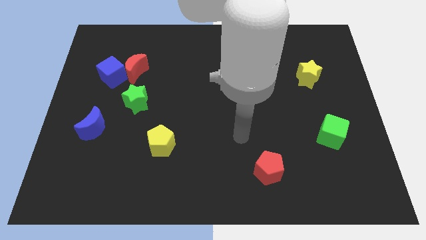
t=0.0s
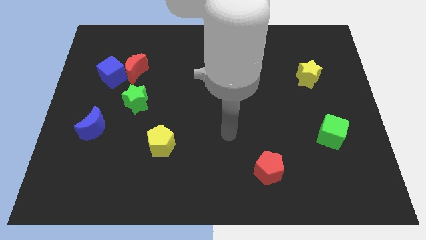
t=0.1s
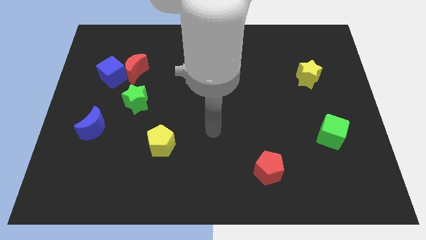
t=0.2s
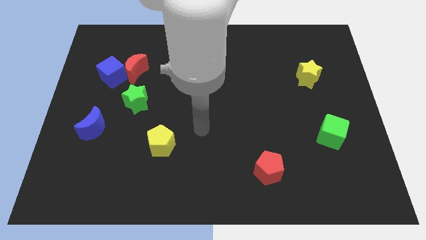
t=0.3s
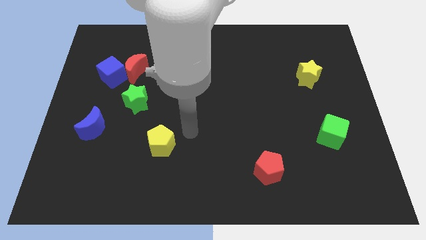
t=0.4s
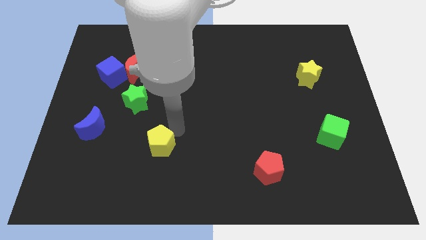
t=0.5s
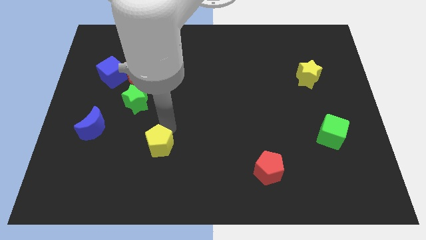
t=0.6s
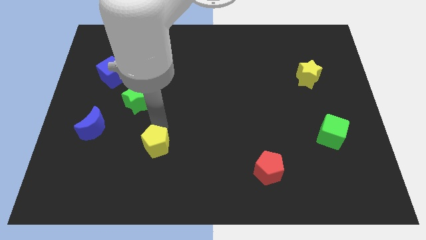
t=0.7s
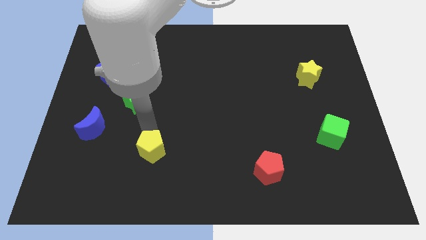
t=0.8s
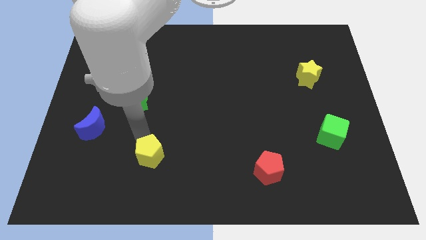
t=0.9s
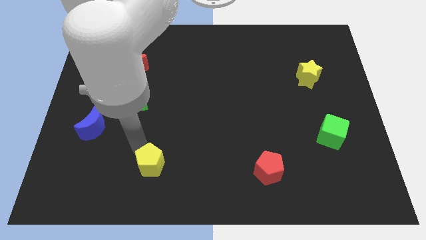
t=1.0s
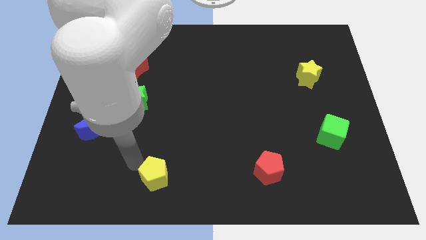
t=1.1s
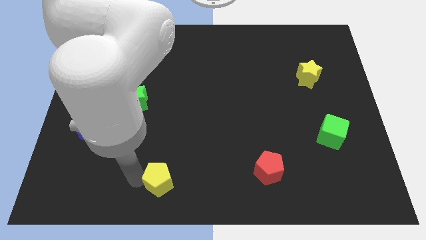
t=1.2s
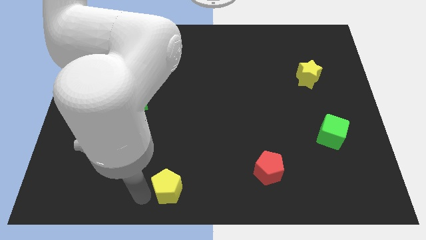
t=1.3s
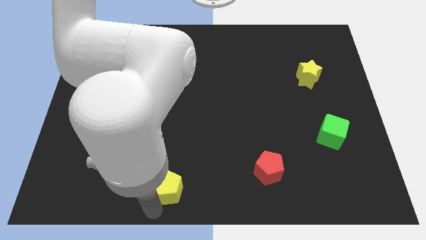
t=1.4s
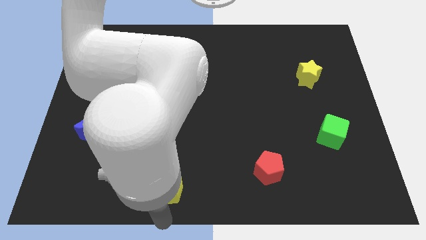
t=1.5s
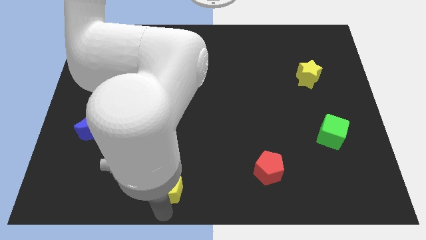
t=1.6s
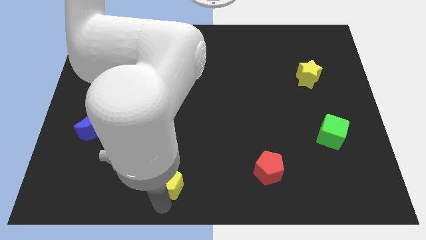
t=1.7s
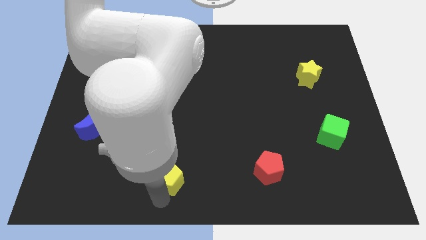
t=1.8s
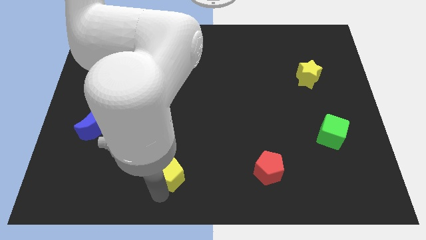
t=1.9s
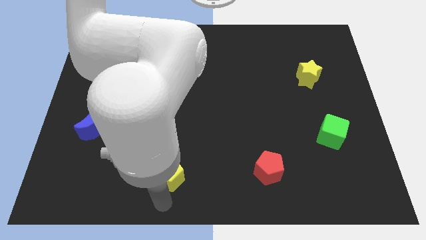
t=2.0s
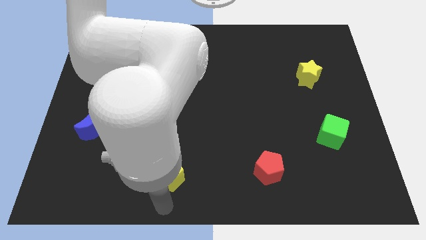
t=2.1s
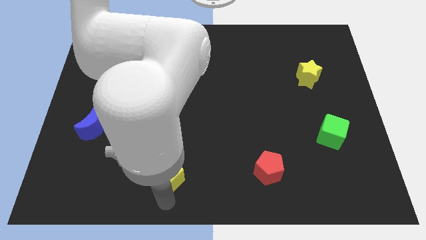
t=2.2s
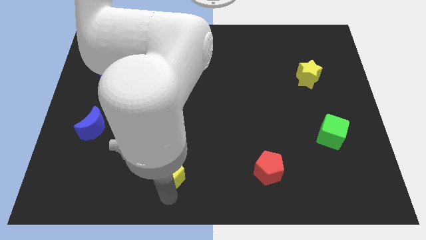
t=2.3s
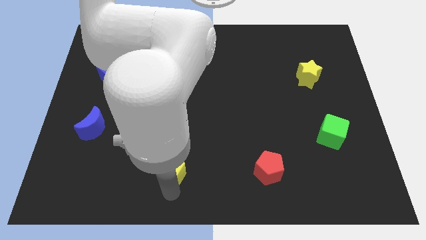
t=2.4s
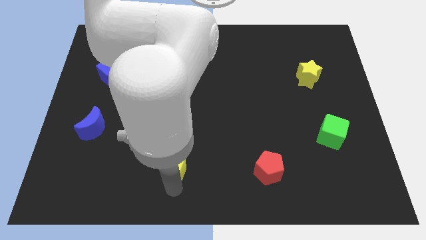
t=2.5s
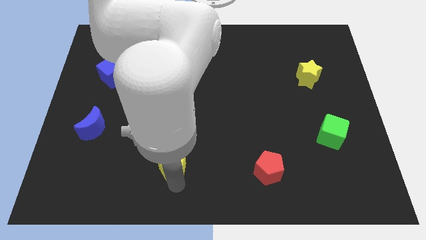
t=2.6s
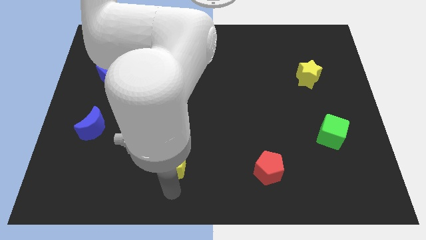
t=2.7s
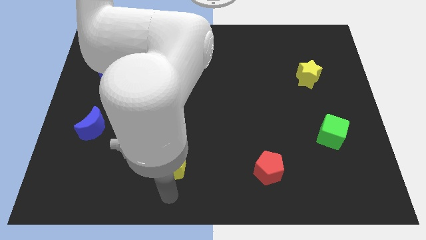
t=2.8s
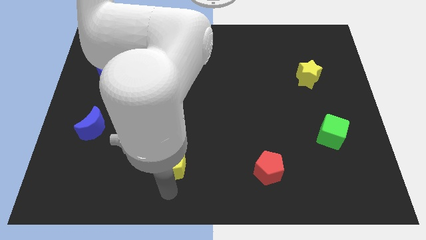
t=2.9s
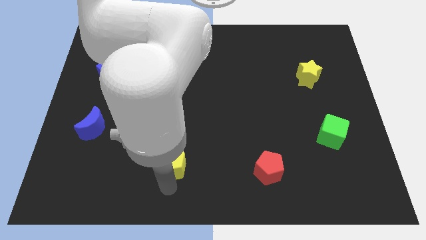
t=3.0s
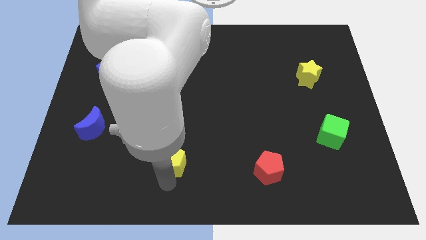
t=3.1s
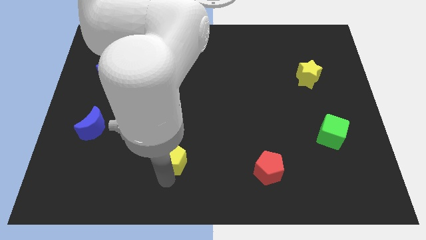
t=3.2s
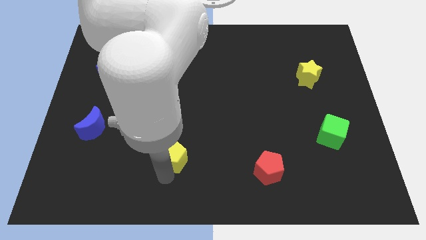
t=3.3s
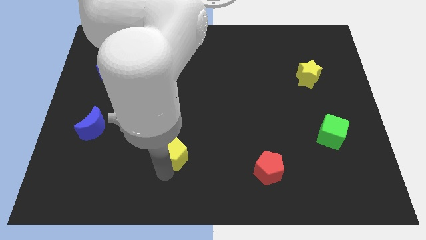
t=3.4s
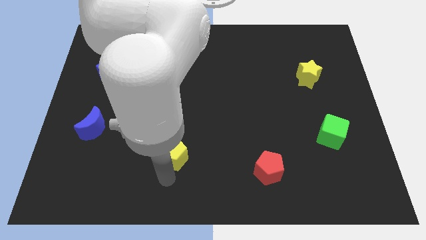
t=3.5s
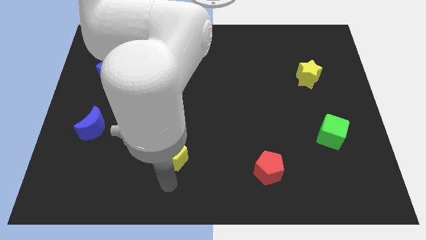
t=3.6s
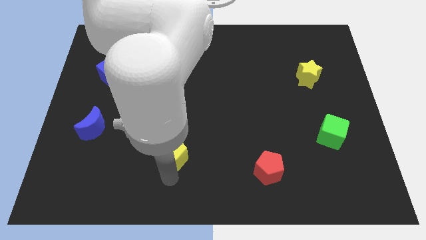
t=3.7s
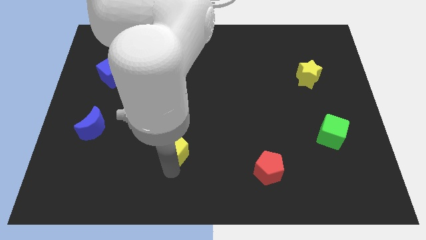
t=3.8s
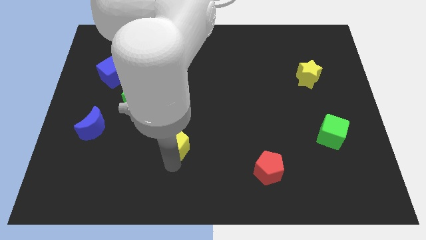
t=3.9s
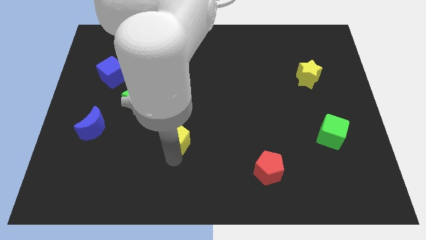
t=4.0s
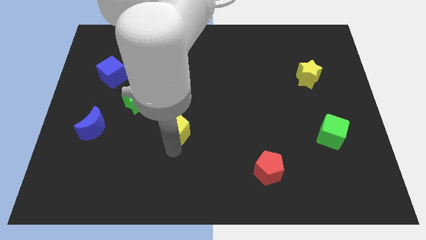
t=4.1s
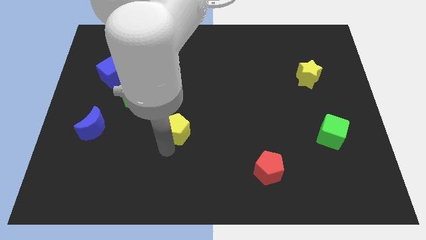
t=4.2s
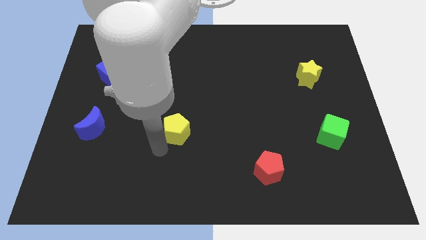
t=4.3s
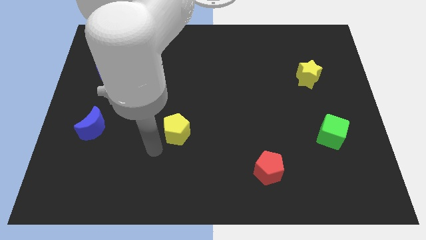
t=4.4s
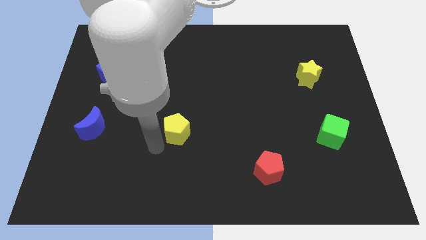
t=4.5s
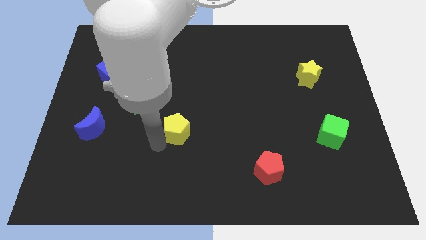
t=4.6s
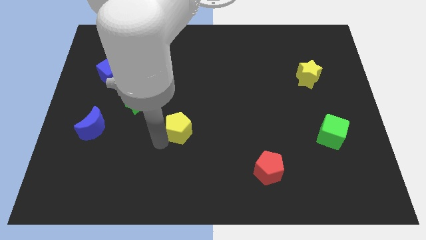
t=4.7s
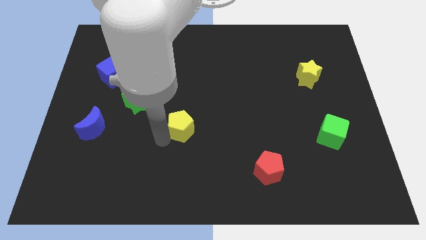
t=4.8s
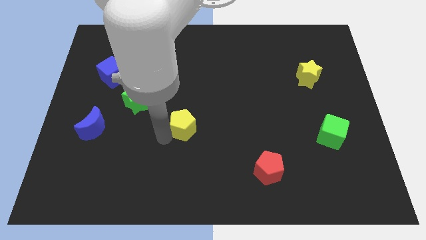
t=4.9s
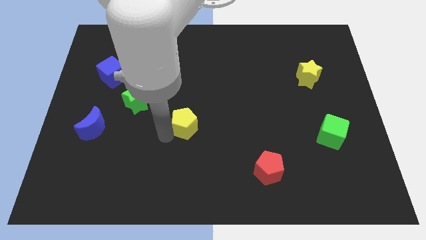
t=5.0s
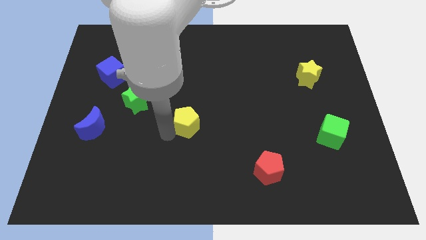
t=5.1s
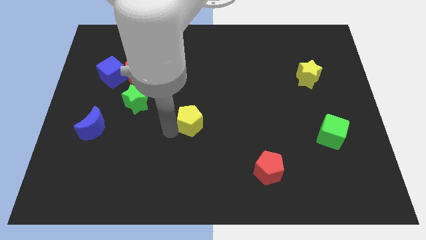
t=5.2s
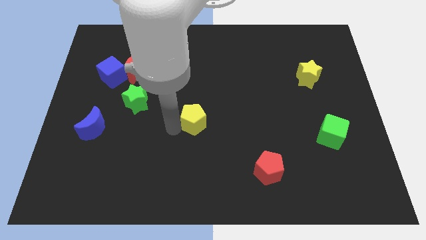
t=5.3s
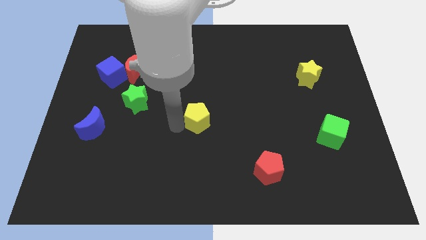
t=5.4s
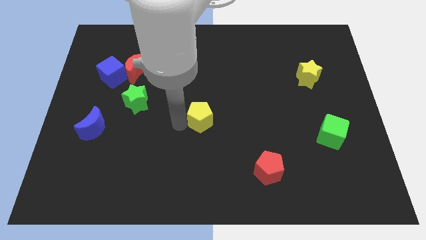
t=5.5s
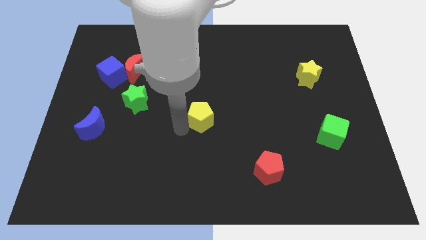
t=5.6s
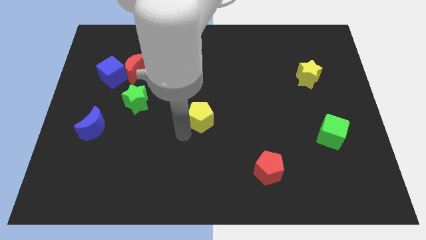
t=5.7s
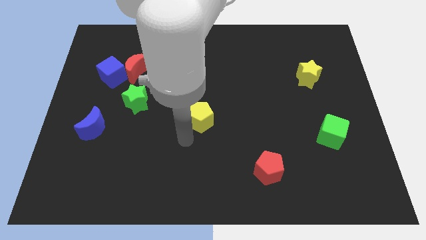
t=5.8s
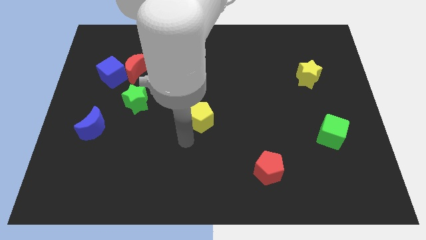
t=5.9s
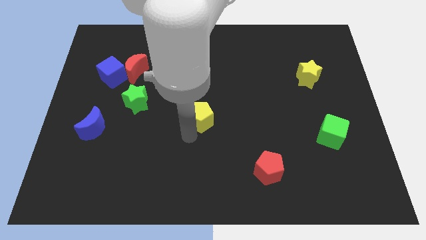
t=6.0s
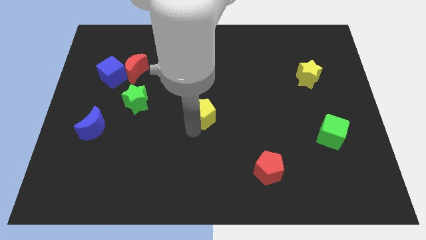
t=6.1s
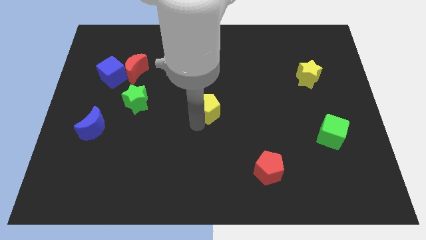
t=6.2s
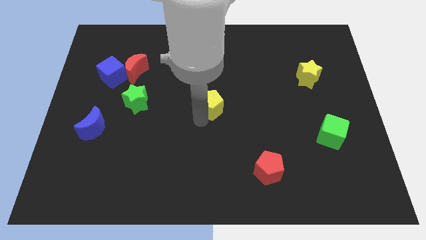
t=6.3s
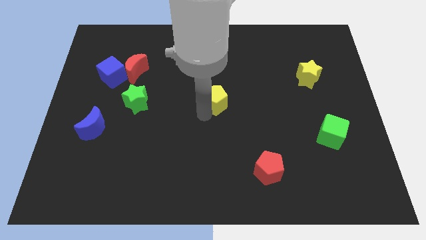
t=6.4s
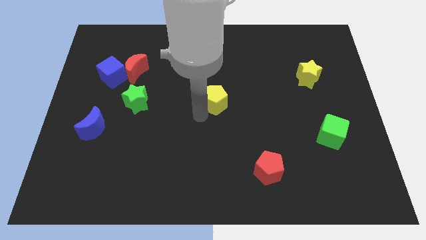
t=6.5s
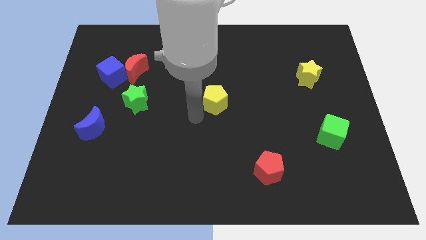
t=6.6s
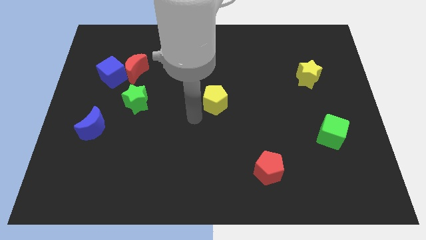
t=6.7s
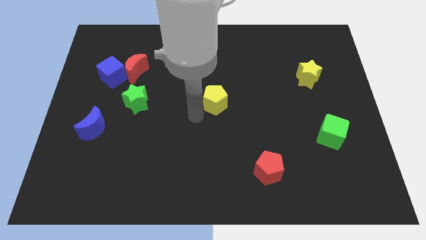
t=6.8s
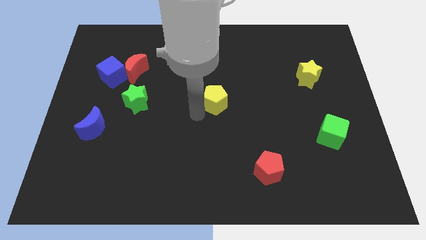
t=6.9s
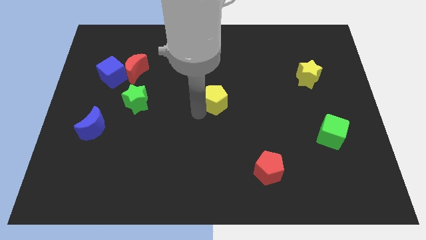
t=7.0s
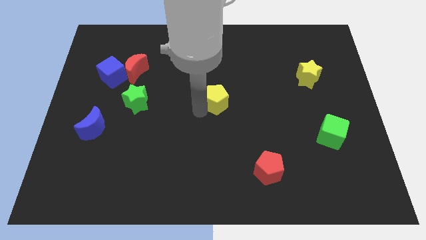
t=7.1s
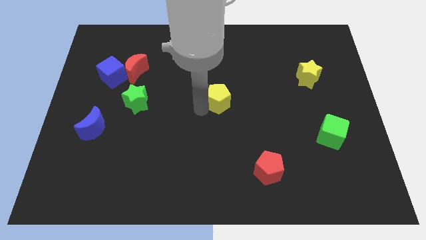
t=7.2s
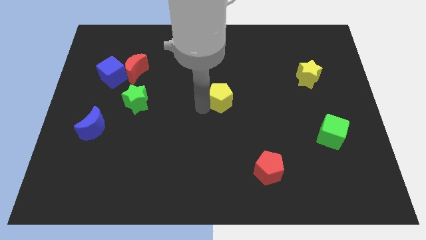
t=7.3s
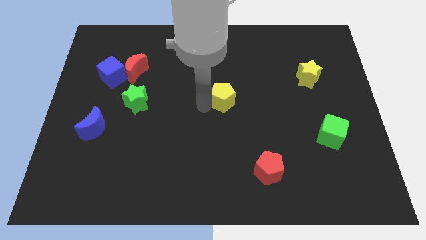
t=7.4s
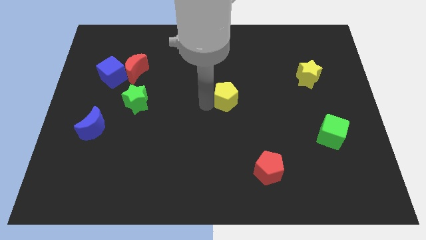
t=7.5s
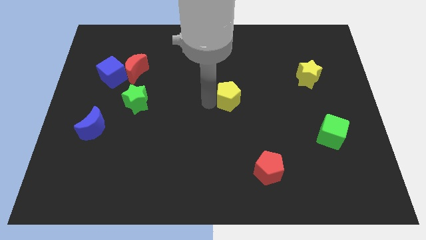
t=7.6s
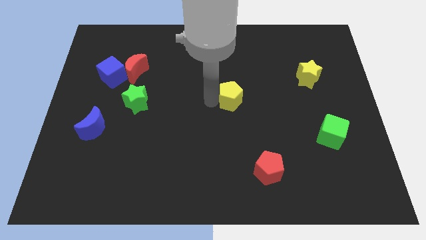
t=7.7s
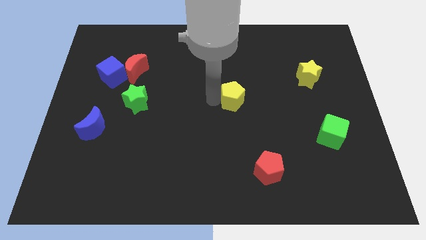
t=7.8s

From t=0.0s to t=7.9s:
push the yellow pentagon up and then to the right

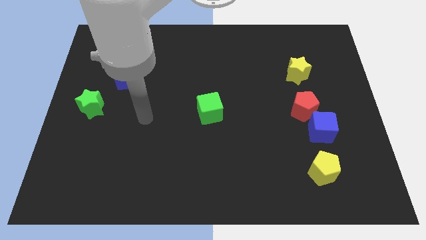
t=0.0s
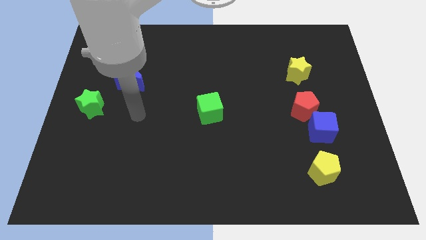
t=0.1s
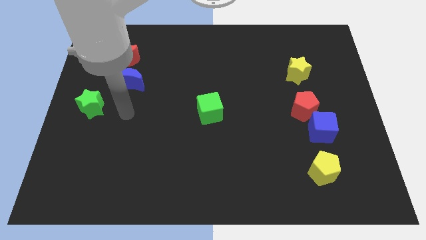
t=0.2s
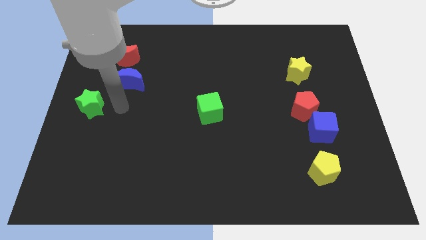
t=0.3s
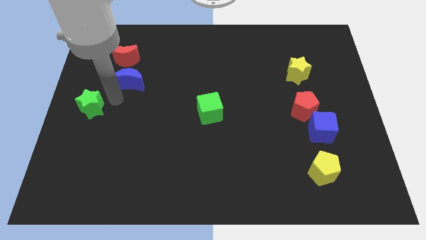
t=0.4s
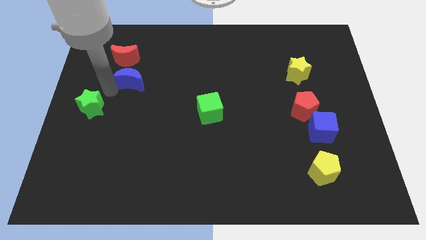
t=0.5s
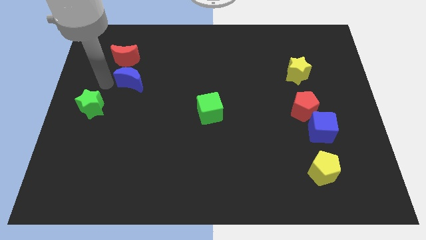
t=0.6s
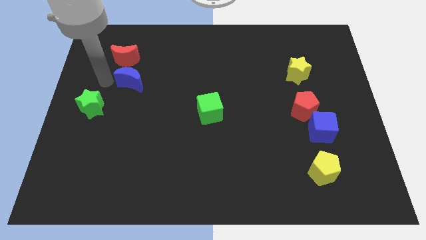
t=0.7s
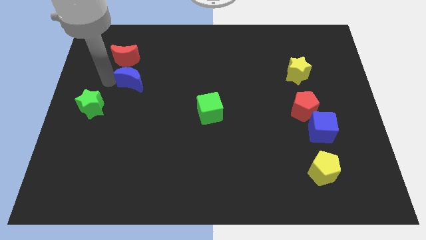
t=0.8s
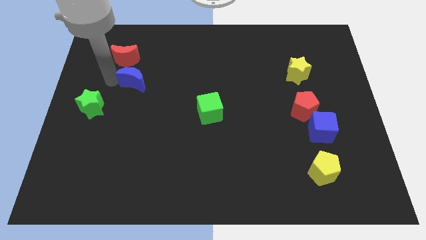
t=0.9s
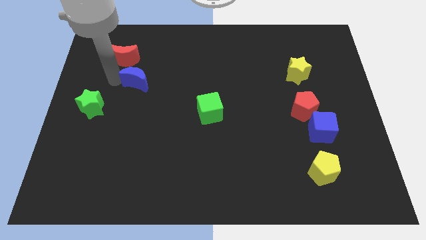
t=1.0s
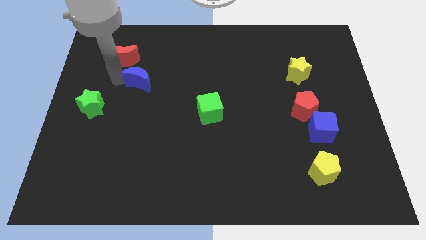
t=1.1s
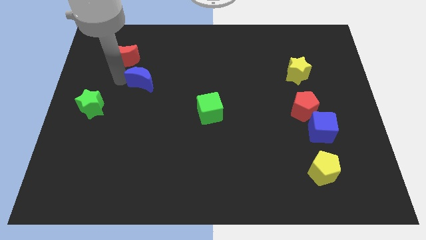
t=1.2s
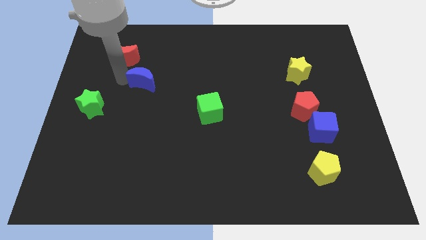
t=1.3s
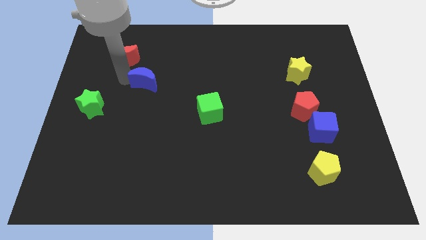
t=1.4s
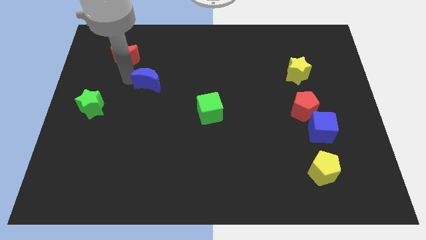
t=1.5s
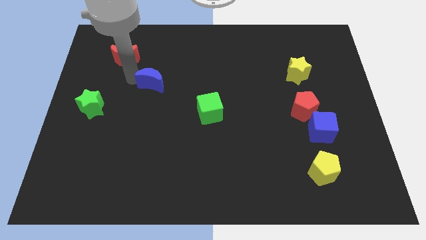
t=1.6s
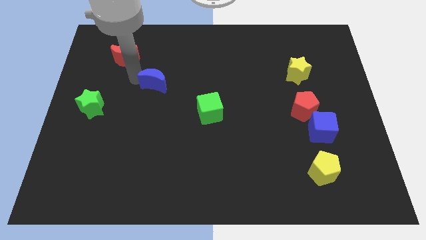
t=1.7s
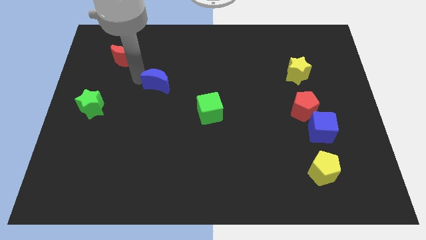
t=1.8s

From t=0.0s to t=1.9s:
slightly slide the blue moon right
